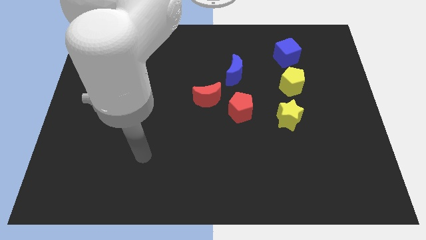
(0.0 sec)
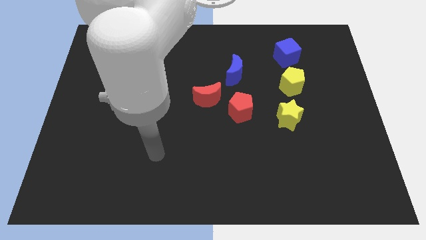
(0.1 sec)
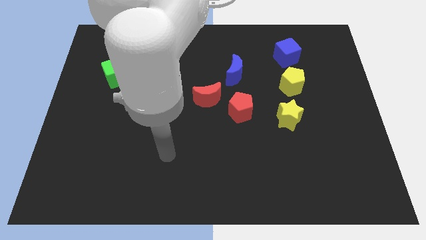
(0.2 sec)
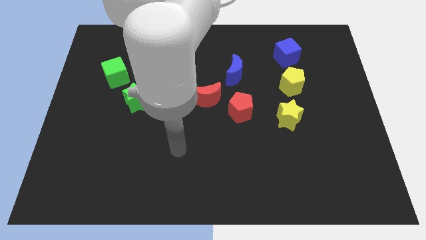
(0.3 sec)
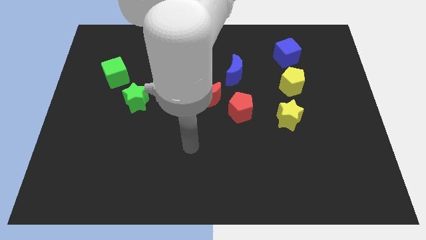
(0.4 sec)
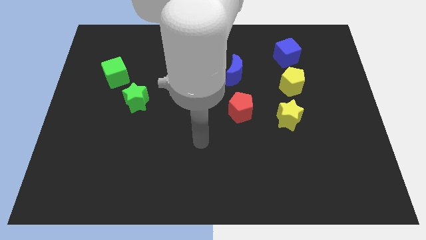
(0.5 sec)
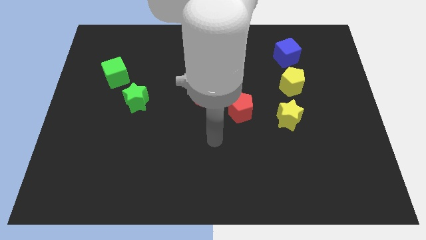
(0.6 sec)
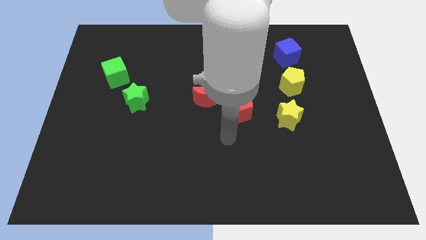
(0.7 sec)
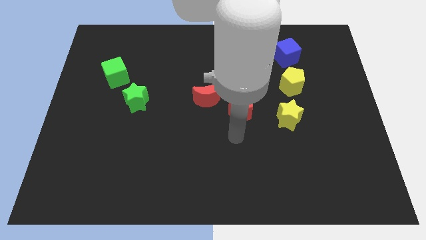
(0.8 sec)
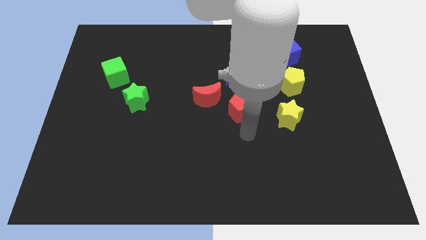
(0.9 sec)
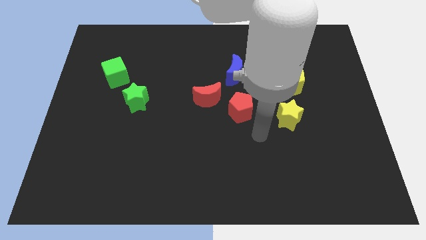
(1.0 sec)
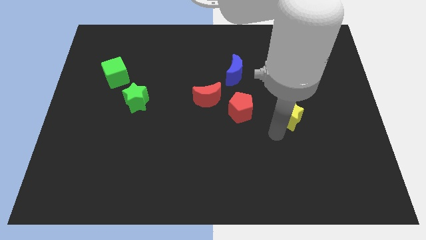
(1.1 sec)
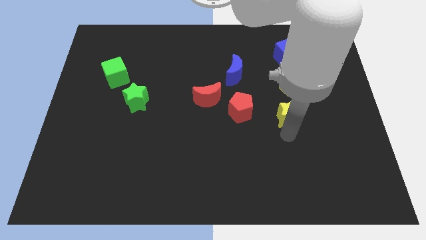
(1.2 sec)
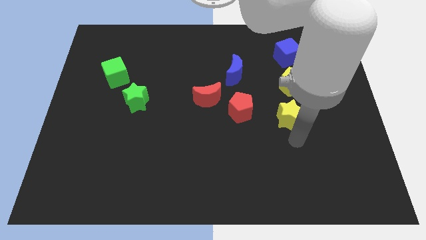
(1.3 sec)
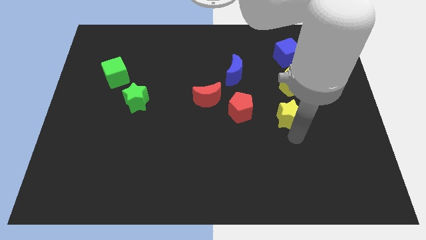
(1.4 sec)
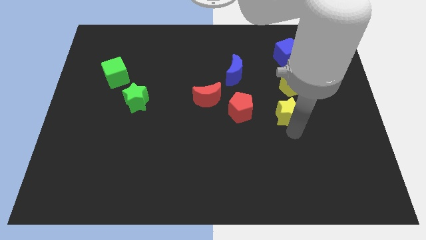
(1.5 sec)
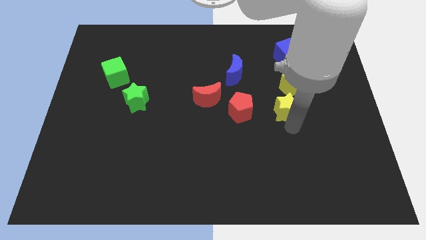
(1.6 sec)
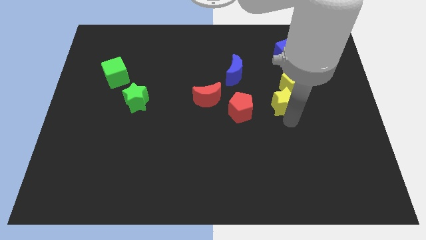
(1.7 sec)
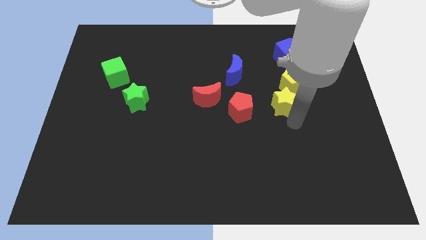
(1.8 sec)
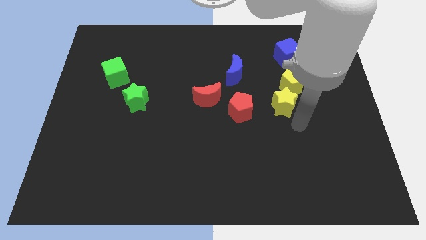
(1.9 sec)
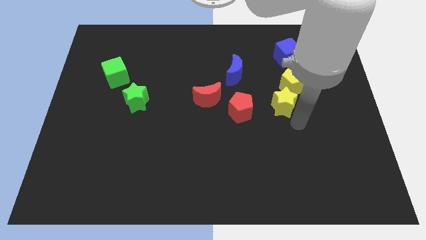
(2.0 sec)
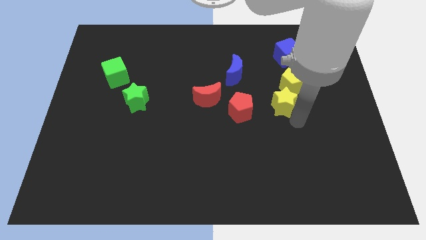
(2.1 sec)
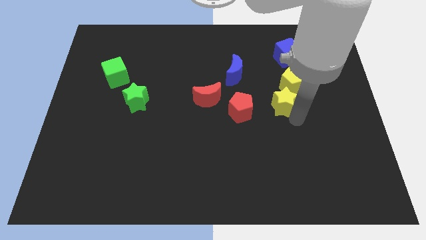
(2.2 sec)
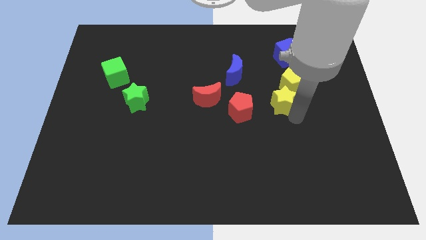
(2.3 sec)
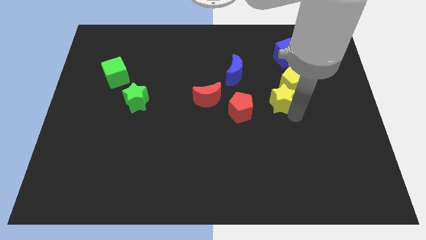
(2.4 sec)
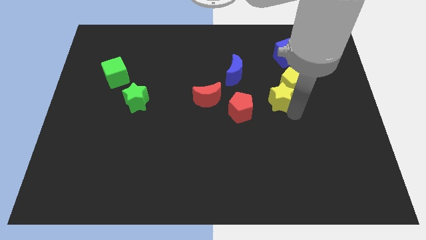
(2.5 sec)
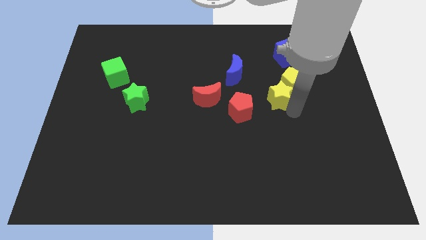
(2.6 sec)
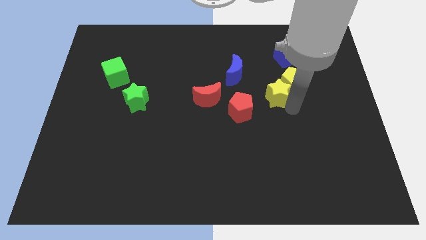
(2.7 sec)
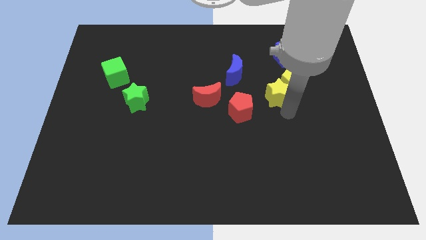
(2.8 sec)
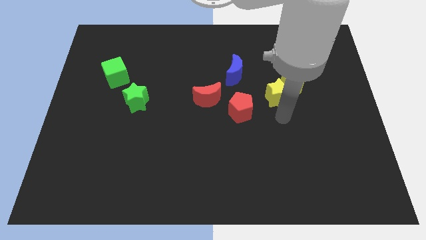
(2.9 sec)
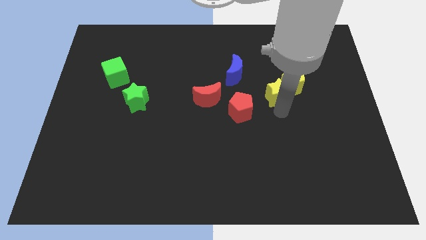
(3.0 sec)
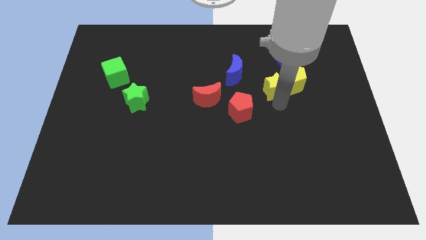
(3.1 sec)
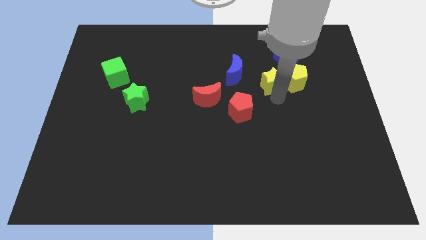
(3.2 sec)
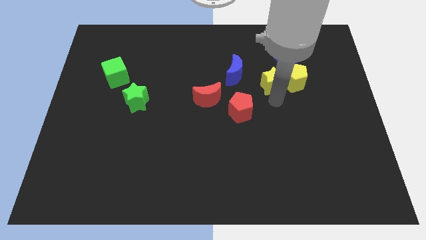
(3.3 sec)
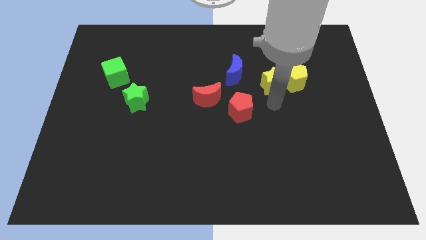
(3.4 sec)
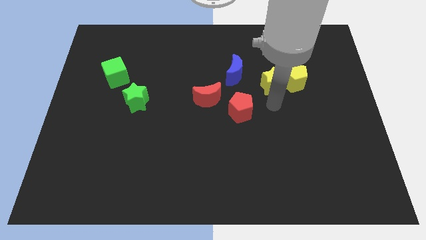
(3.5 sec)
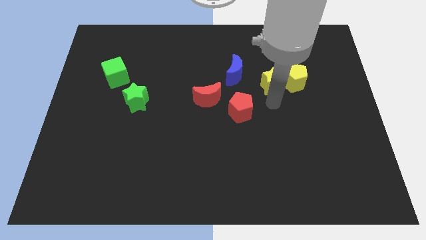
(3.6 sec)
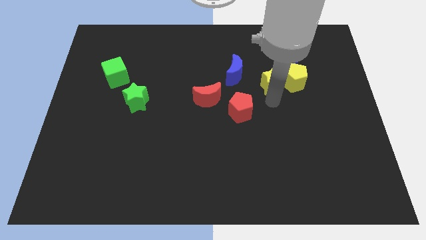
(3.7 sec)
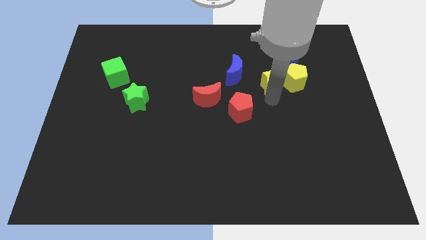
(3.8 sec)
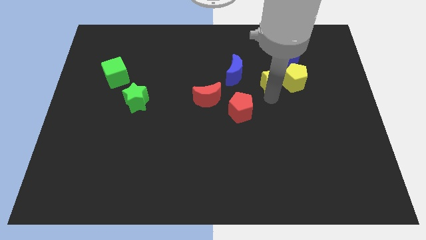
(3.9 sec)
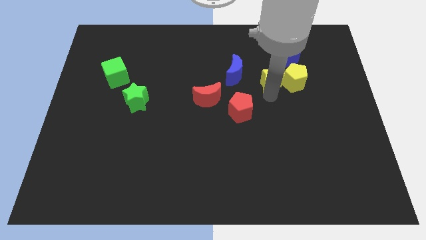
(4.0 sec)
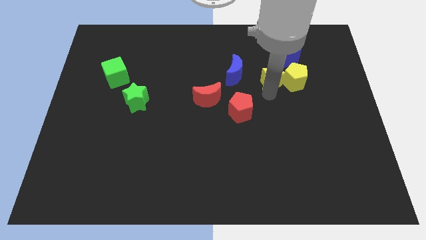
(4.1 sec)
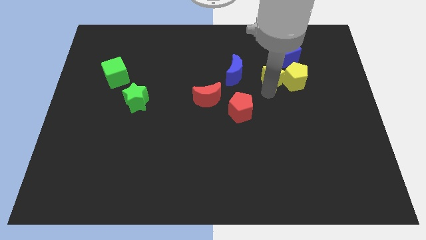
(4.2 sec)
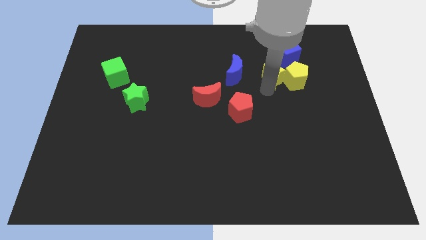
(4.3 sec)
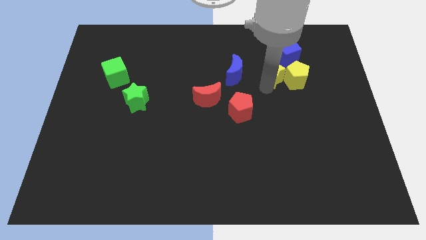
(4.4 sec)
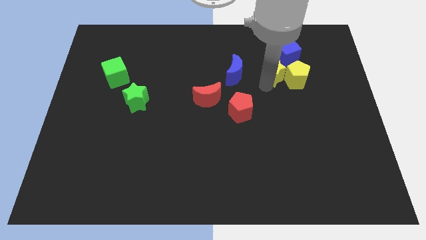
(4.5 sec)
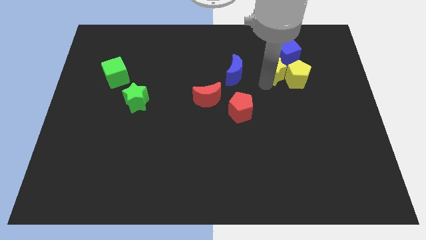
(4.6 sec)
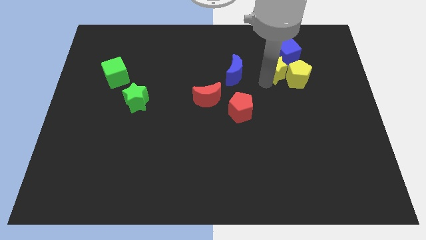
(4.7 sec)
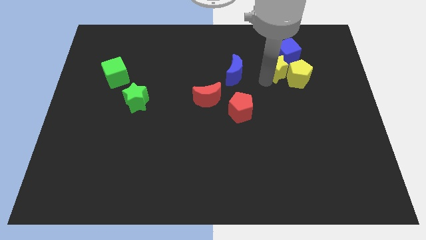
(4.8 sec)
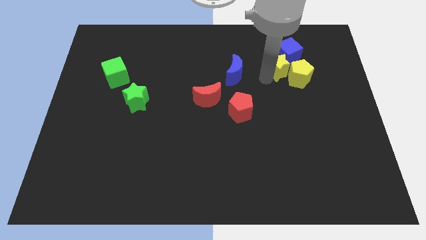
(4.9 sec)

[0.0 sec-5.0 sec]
push the yellow star next to the blue cube

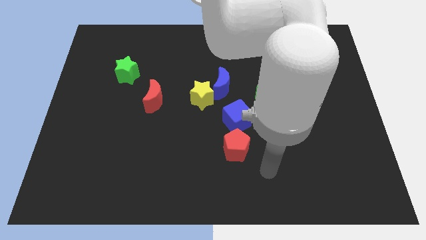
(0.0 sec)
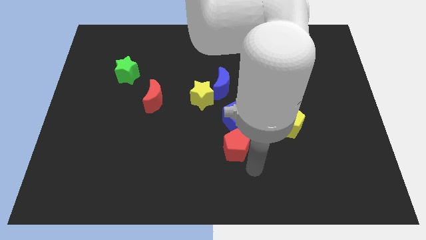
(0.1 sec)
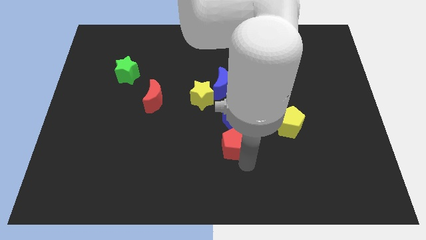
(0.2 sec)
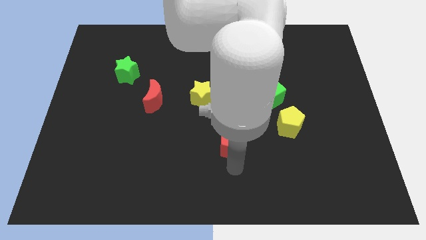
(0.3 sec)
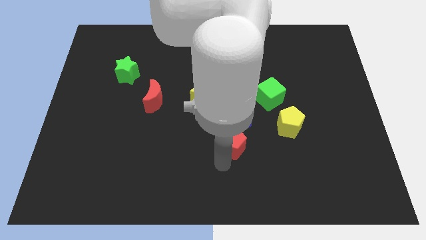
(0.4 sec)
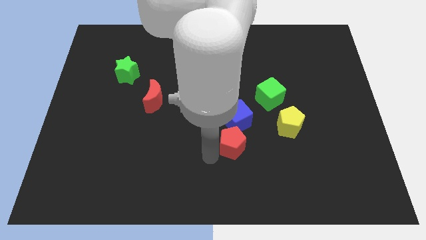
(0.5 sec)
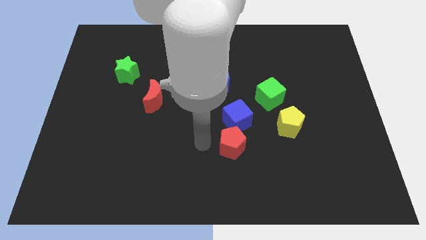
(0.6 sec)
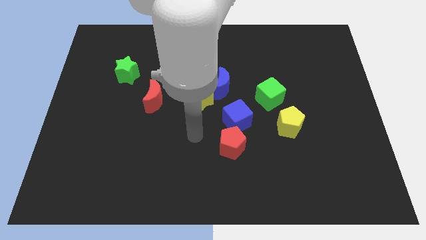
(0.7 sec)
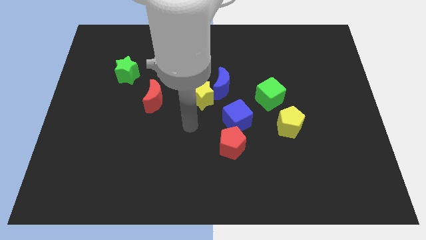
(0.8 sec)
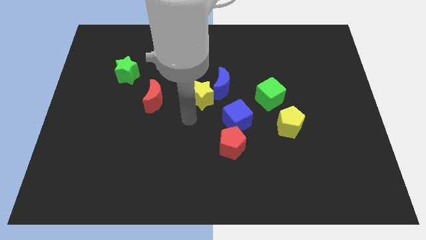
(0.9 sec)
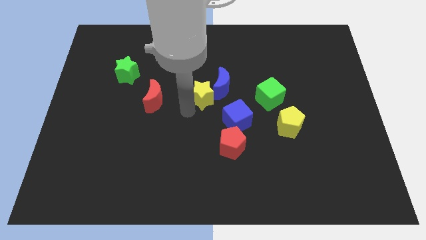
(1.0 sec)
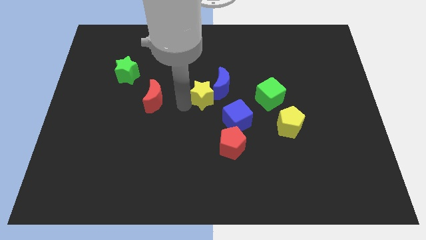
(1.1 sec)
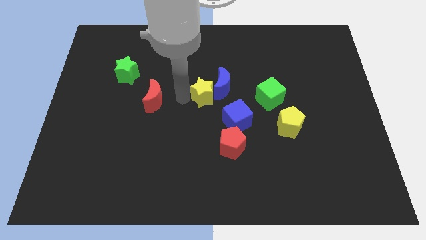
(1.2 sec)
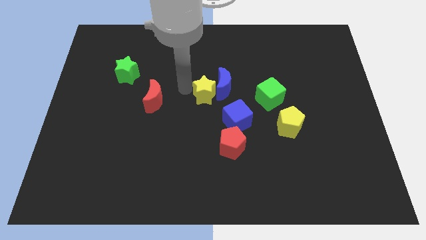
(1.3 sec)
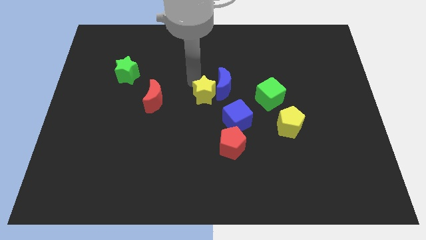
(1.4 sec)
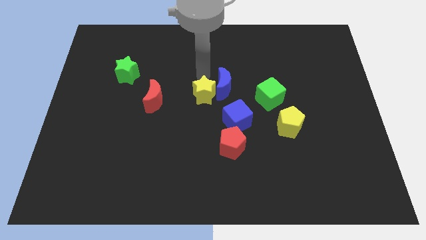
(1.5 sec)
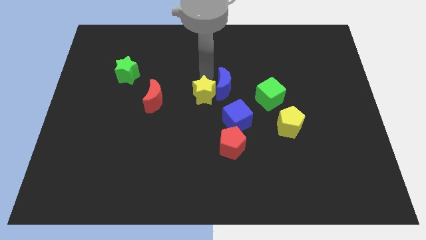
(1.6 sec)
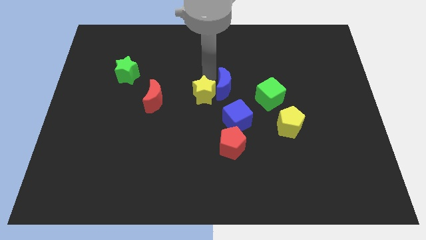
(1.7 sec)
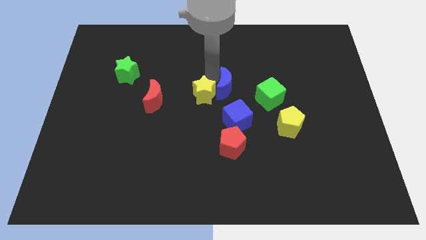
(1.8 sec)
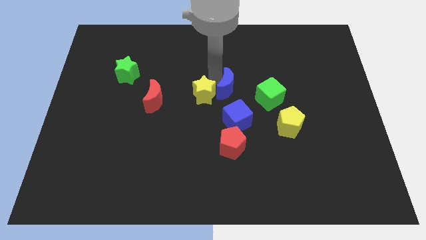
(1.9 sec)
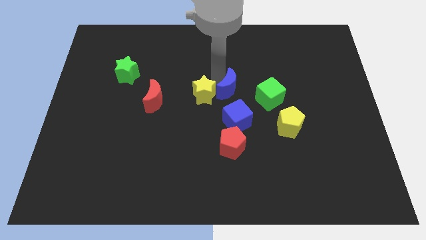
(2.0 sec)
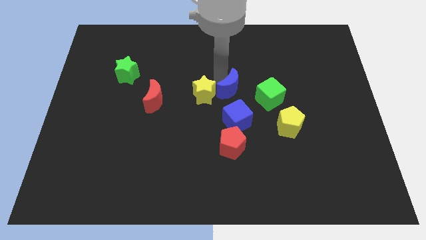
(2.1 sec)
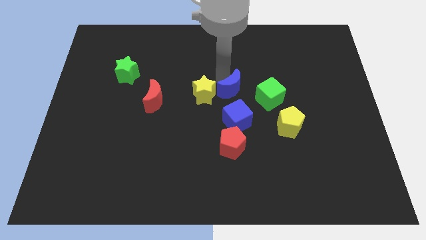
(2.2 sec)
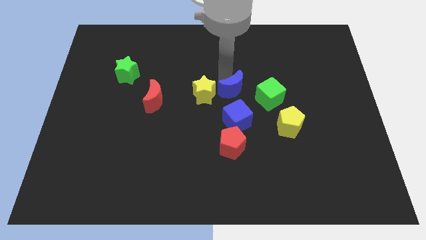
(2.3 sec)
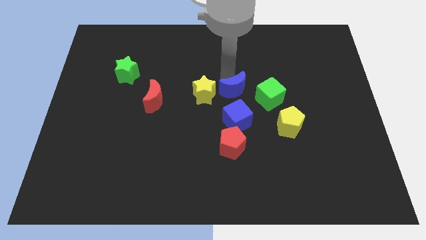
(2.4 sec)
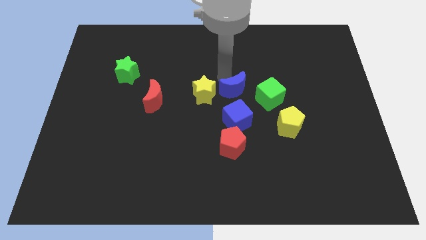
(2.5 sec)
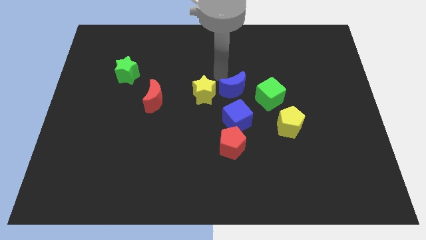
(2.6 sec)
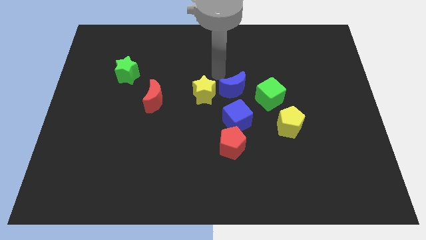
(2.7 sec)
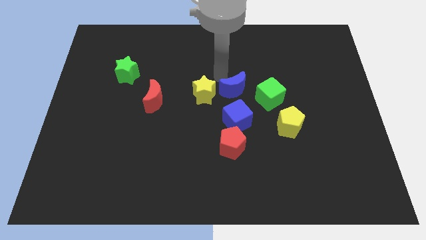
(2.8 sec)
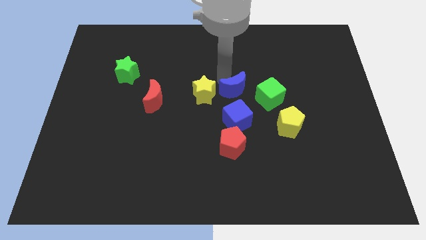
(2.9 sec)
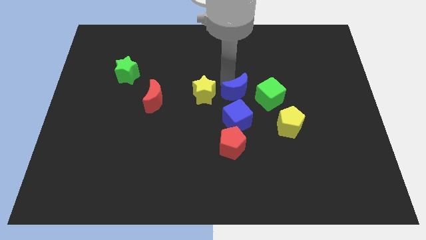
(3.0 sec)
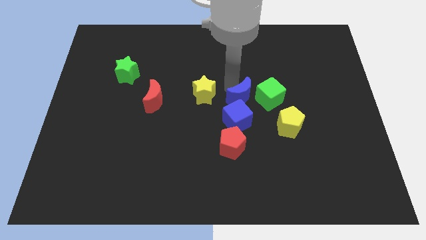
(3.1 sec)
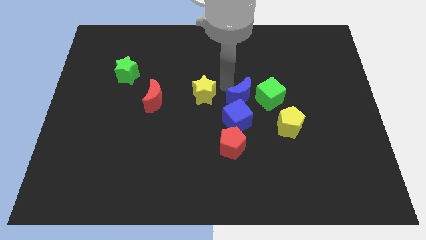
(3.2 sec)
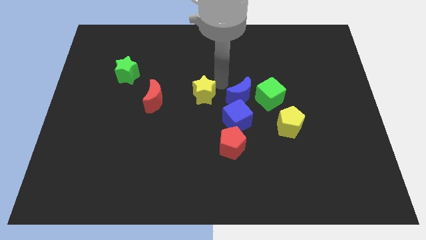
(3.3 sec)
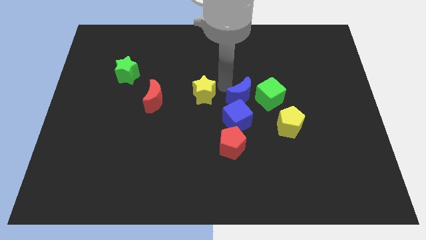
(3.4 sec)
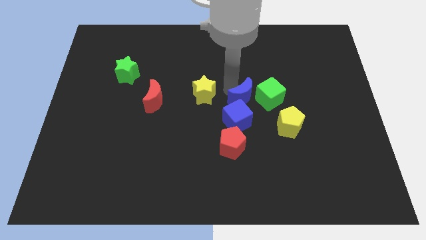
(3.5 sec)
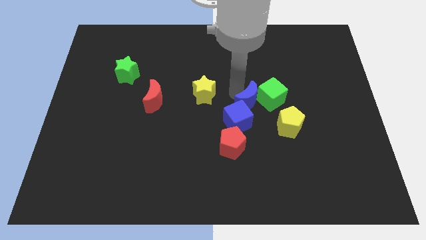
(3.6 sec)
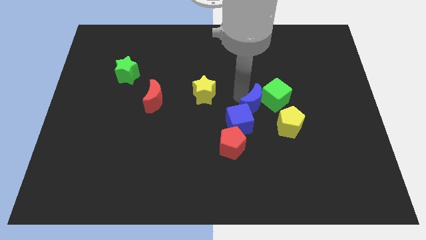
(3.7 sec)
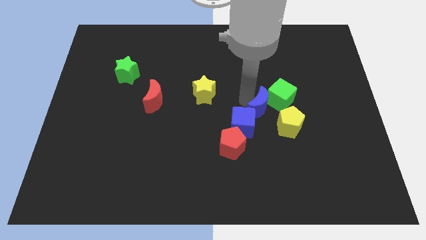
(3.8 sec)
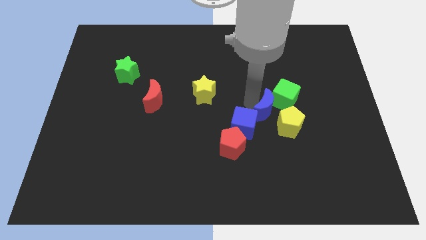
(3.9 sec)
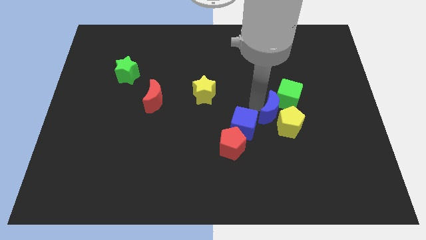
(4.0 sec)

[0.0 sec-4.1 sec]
move the blue moon to the yellow pentagon
